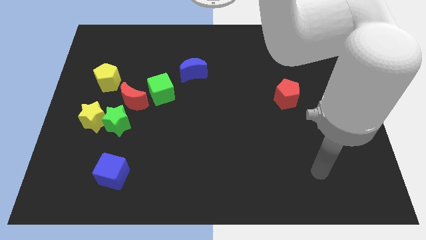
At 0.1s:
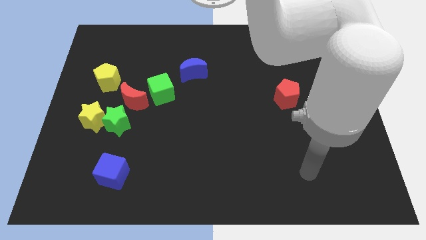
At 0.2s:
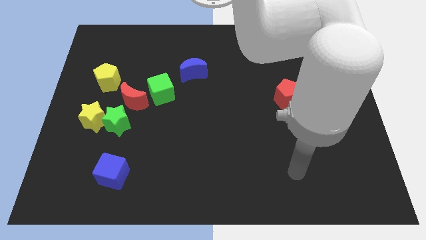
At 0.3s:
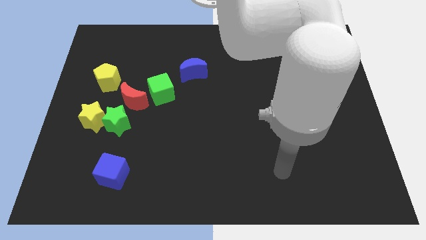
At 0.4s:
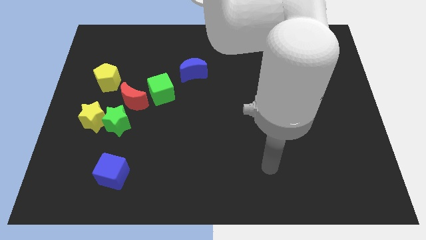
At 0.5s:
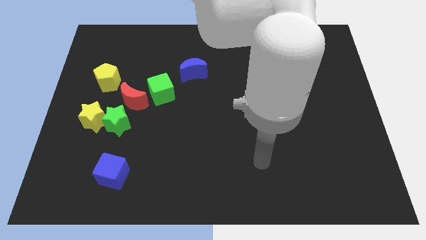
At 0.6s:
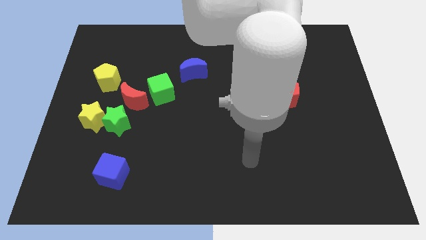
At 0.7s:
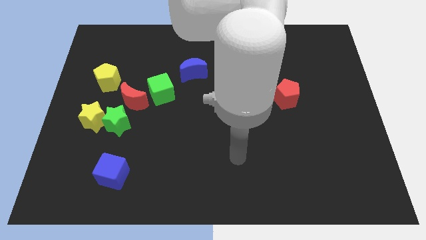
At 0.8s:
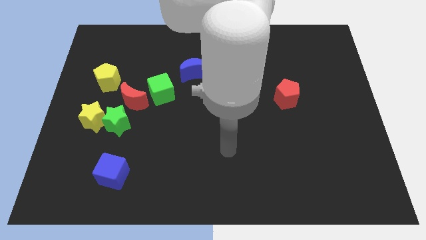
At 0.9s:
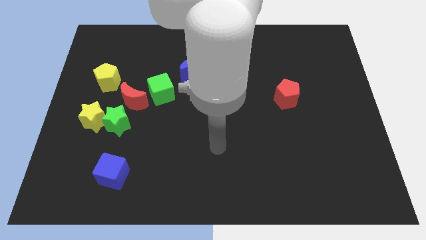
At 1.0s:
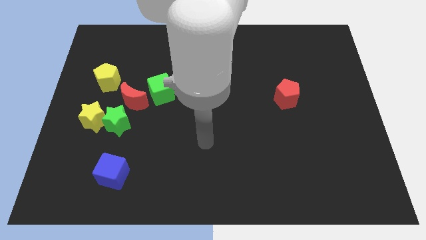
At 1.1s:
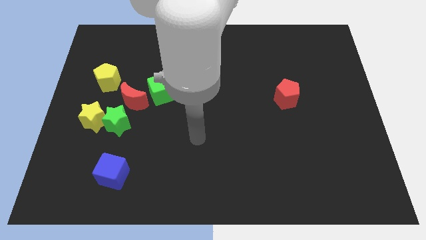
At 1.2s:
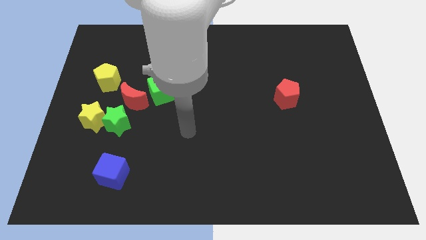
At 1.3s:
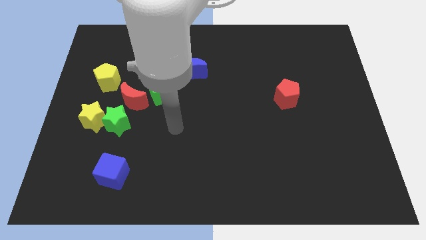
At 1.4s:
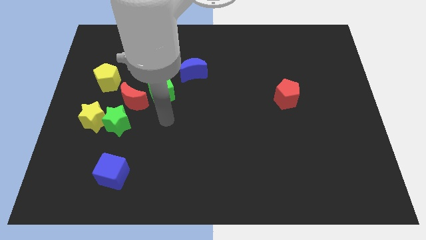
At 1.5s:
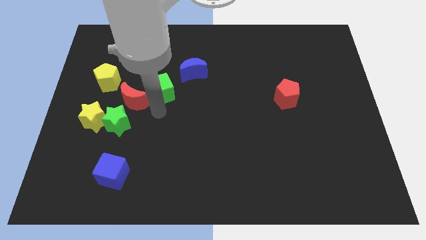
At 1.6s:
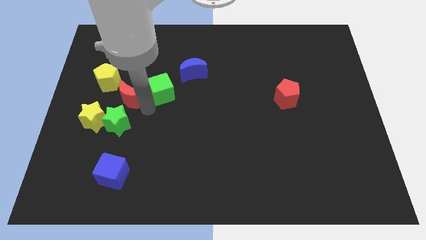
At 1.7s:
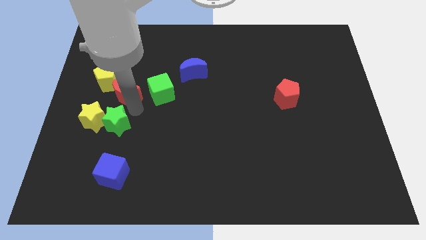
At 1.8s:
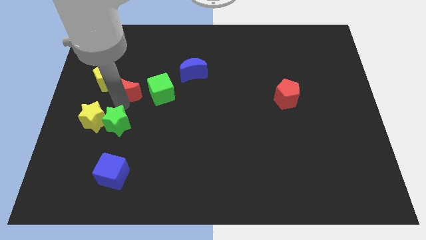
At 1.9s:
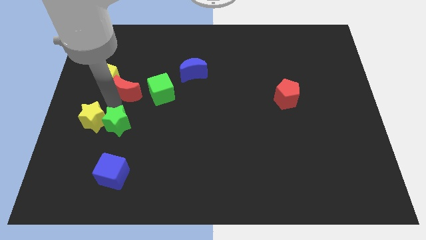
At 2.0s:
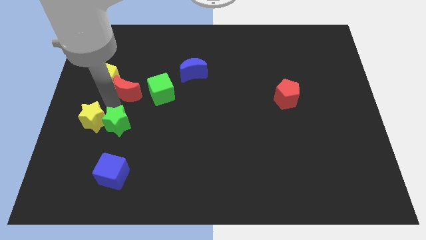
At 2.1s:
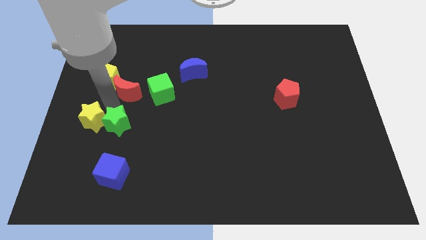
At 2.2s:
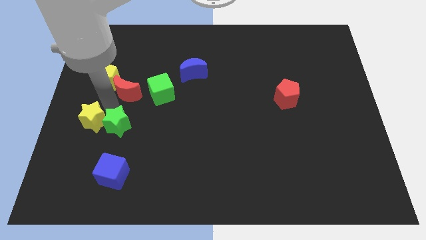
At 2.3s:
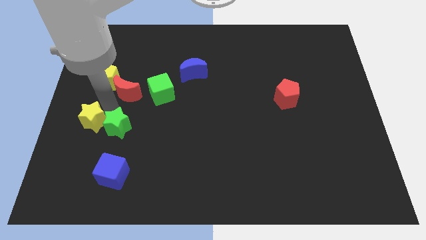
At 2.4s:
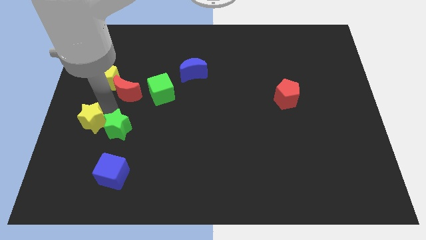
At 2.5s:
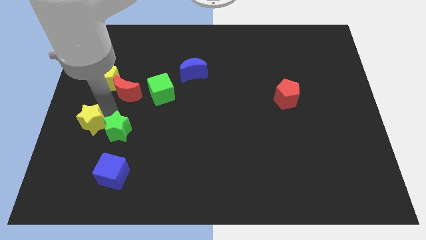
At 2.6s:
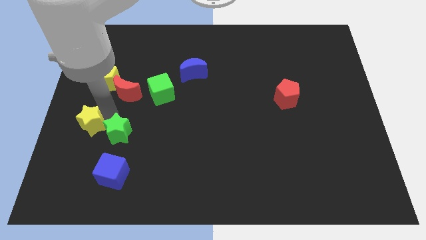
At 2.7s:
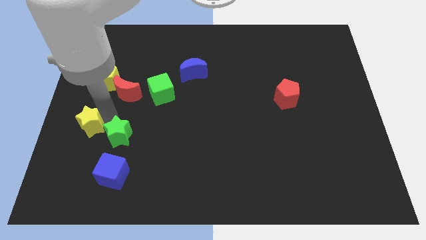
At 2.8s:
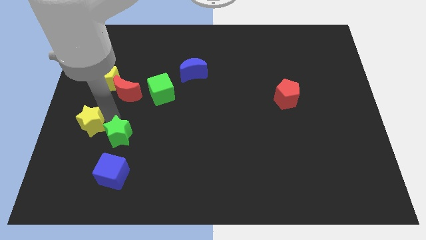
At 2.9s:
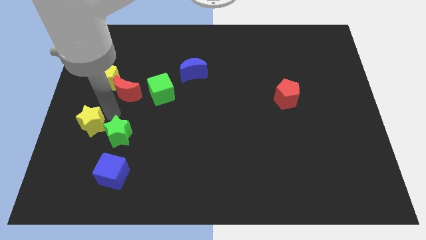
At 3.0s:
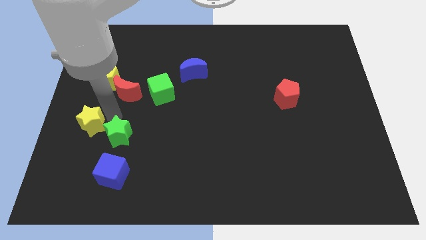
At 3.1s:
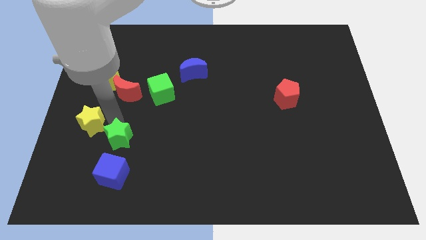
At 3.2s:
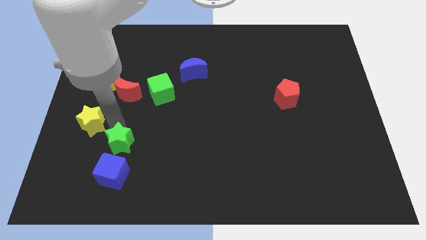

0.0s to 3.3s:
pull the green star apart from the yellow star and red moon

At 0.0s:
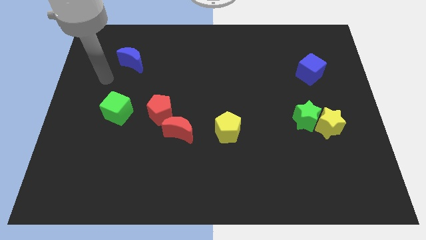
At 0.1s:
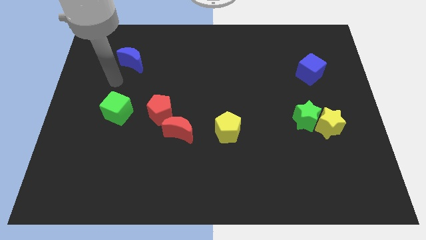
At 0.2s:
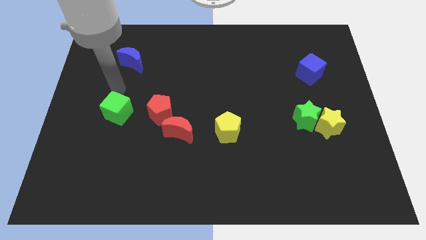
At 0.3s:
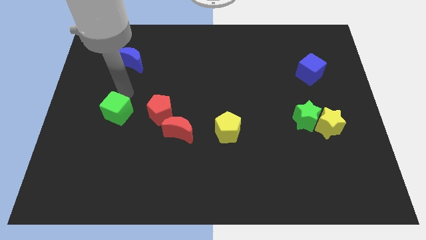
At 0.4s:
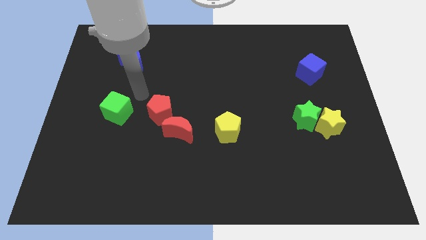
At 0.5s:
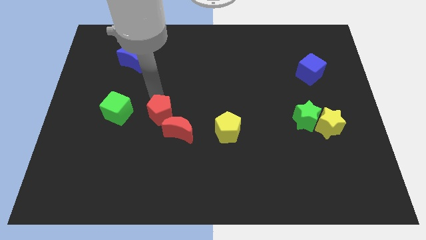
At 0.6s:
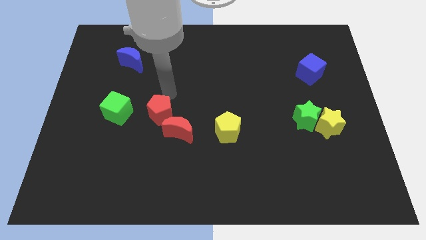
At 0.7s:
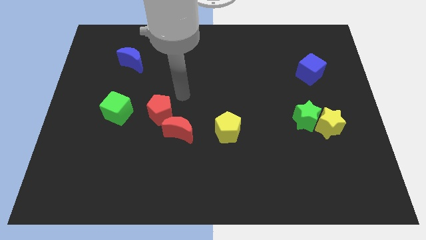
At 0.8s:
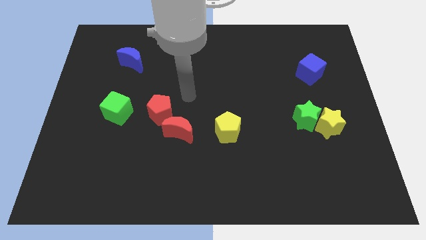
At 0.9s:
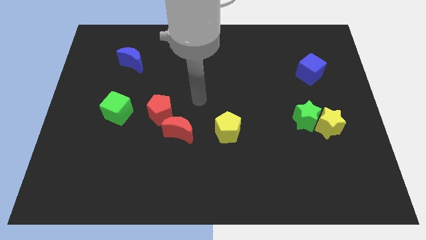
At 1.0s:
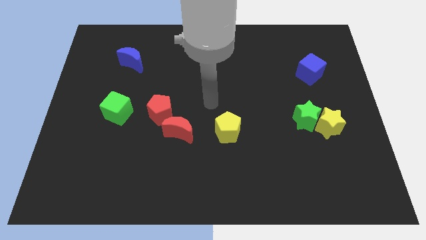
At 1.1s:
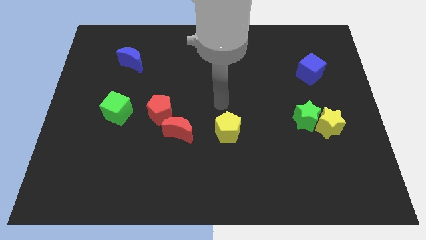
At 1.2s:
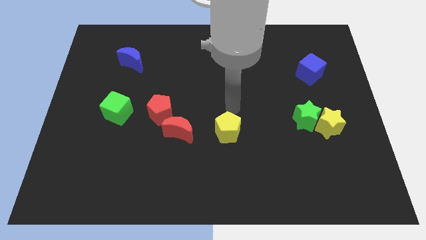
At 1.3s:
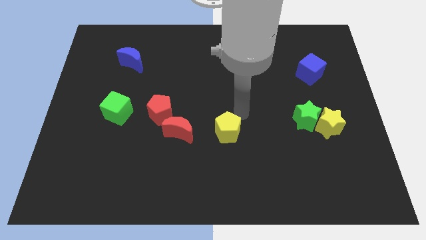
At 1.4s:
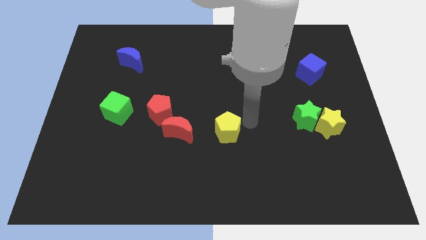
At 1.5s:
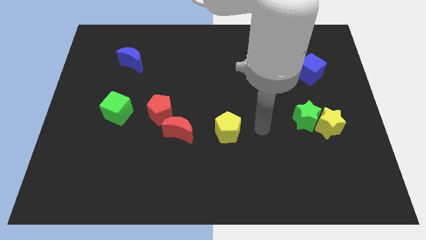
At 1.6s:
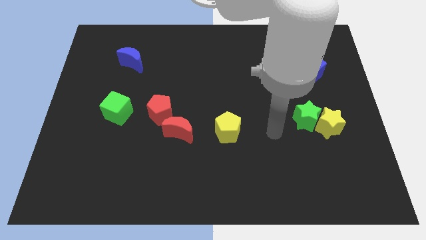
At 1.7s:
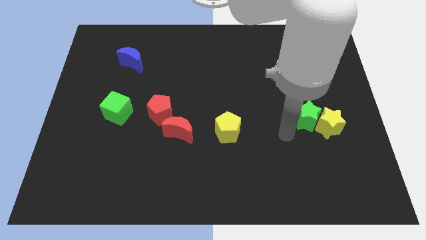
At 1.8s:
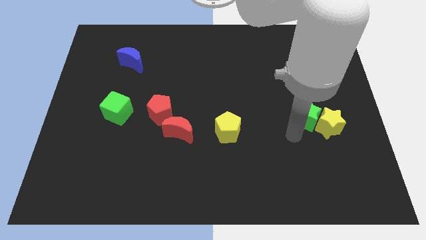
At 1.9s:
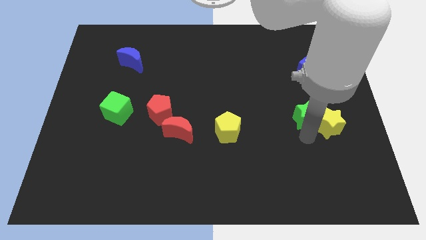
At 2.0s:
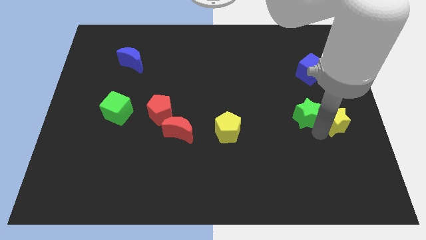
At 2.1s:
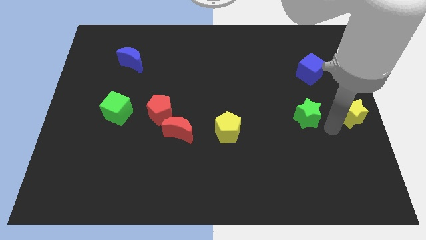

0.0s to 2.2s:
move the green star away from the yellow star

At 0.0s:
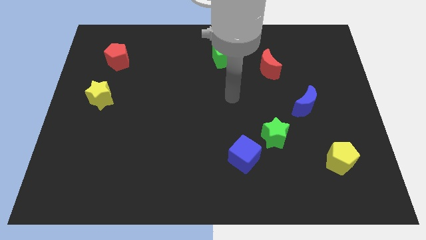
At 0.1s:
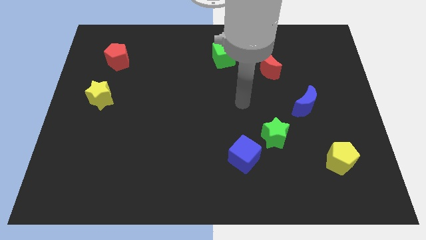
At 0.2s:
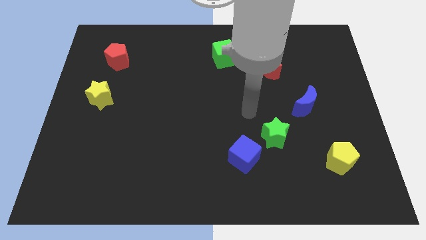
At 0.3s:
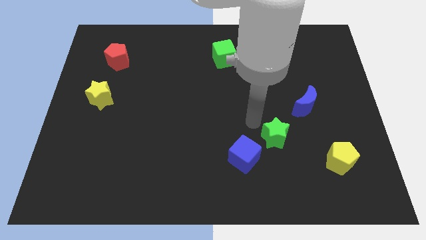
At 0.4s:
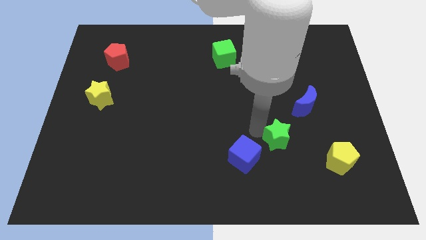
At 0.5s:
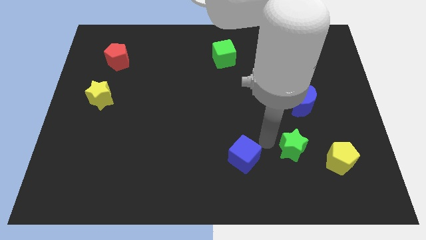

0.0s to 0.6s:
move the blue cube away from the green star

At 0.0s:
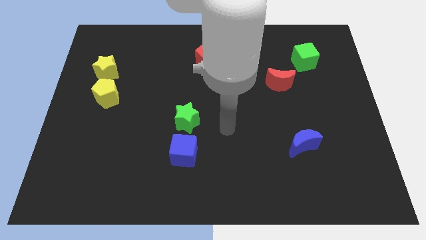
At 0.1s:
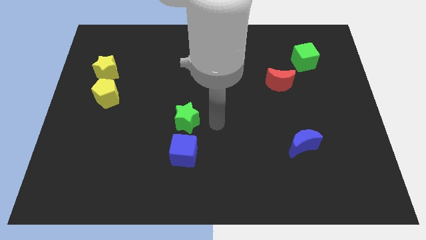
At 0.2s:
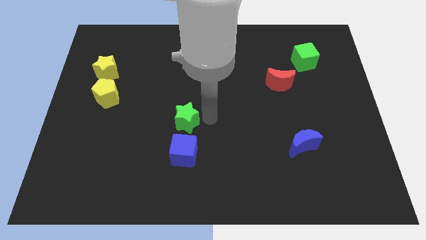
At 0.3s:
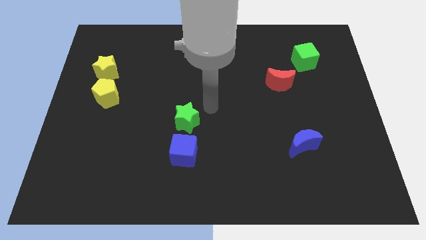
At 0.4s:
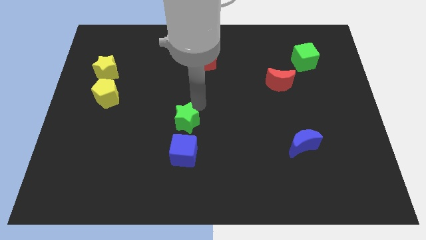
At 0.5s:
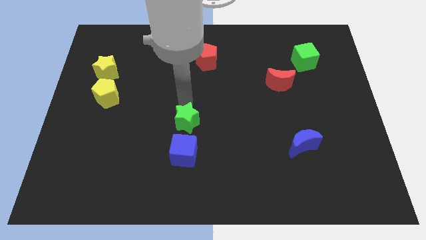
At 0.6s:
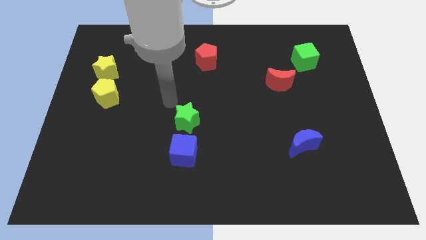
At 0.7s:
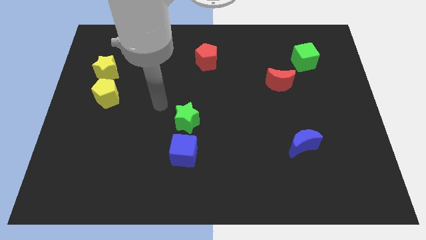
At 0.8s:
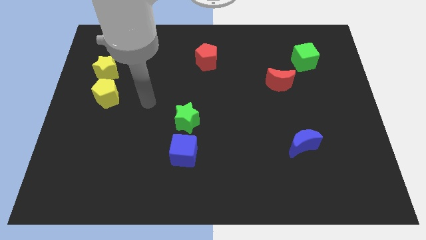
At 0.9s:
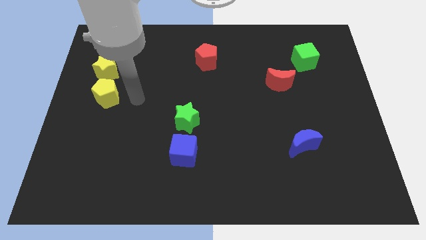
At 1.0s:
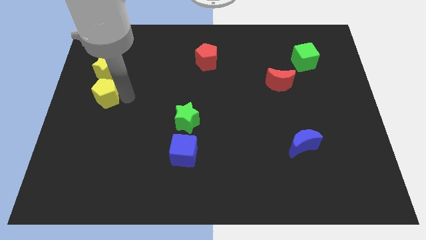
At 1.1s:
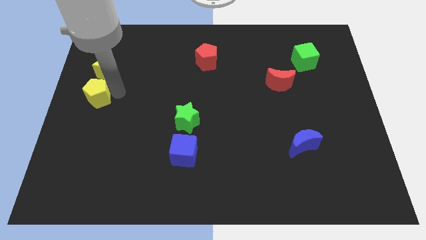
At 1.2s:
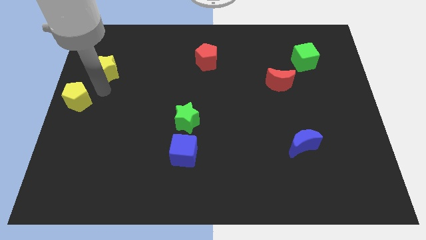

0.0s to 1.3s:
move the yellow star away from the yellow pentagon

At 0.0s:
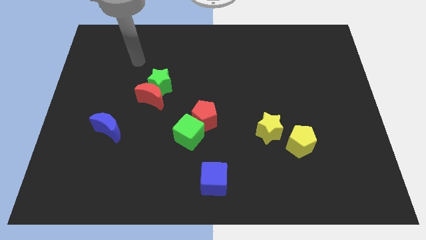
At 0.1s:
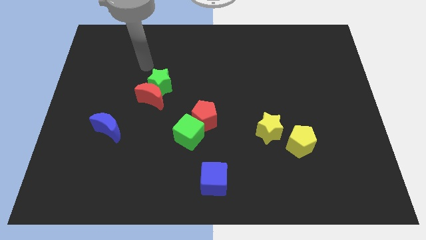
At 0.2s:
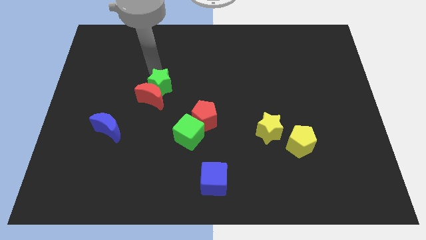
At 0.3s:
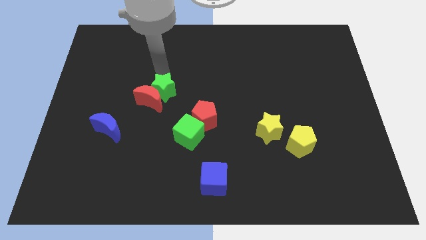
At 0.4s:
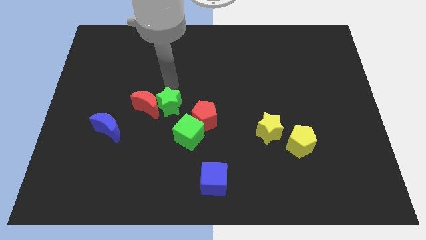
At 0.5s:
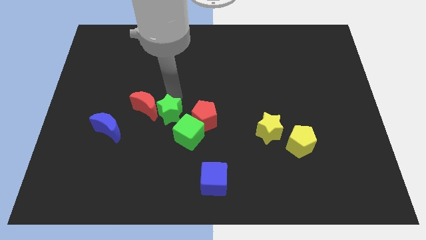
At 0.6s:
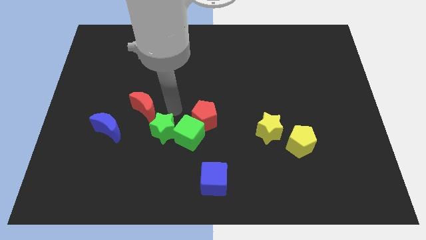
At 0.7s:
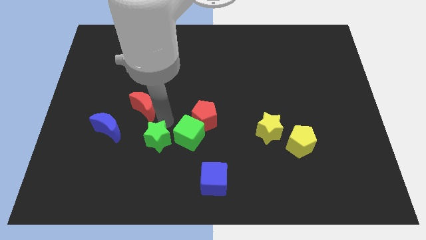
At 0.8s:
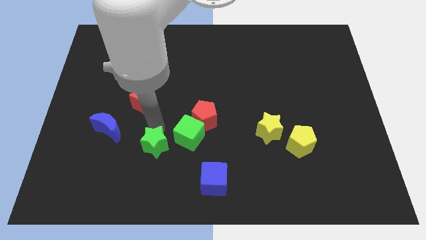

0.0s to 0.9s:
move the red moon away from the green star

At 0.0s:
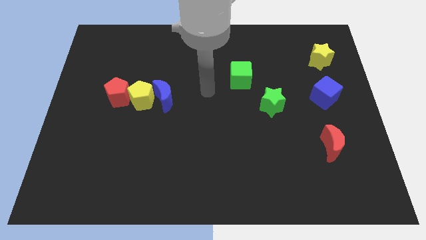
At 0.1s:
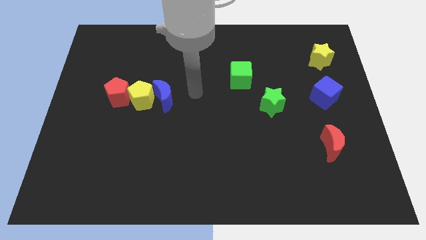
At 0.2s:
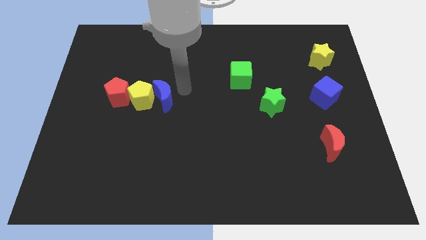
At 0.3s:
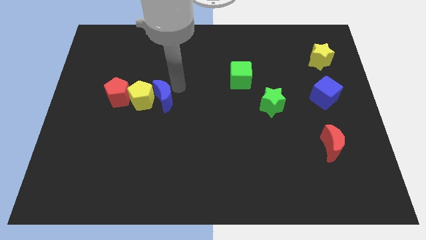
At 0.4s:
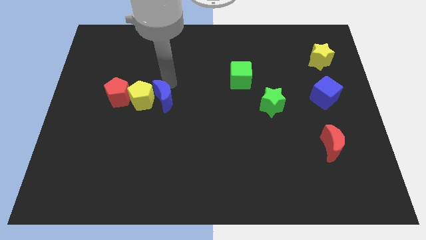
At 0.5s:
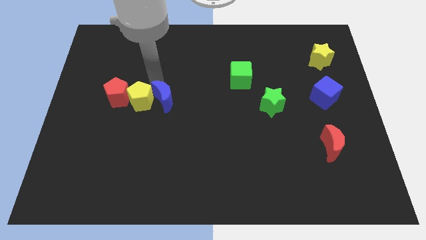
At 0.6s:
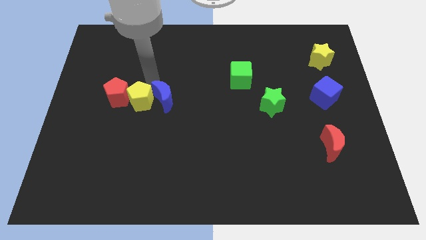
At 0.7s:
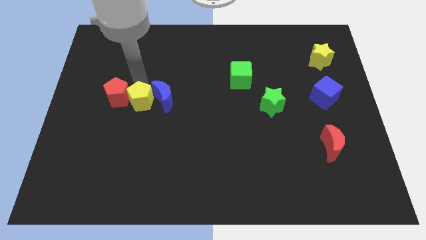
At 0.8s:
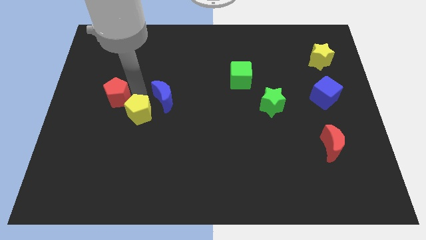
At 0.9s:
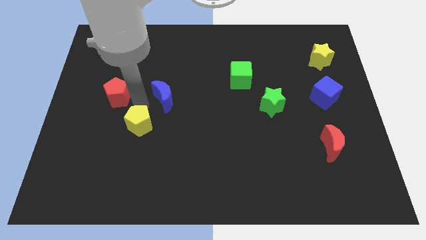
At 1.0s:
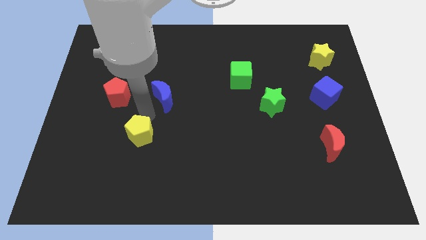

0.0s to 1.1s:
pull the blue moon apart from the yellow pentagon
